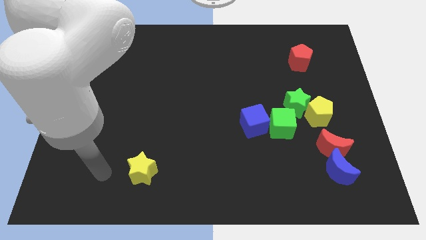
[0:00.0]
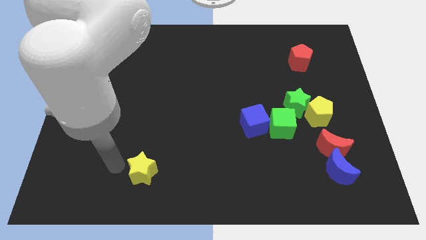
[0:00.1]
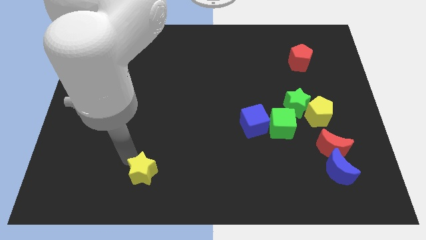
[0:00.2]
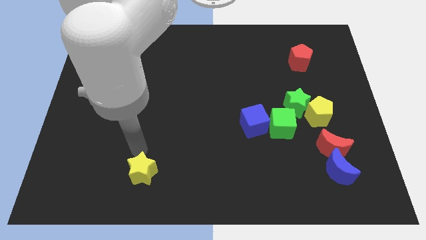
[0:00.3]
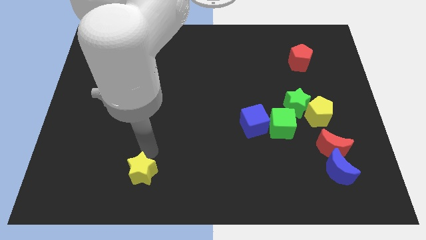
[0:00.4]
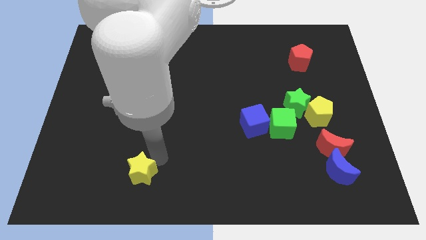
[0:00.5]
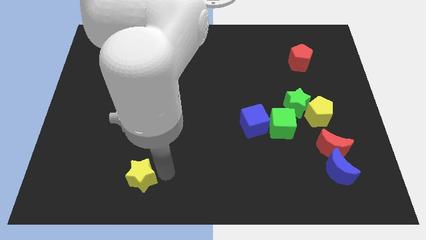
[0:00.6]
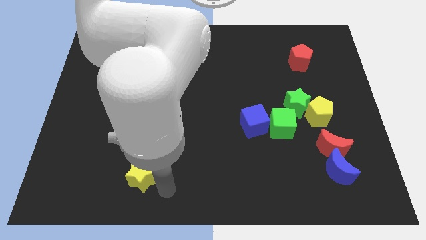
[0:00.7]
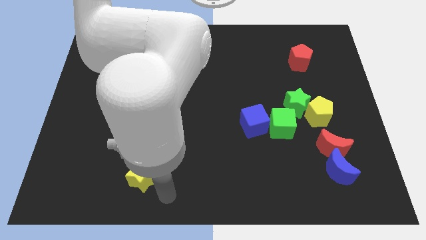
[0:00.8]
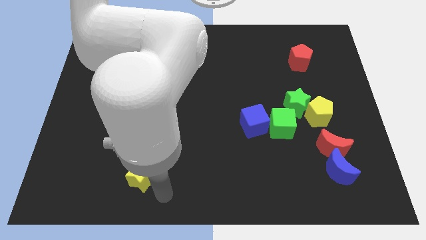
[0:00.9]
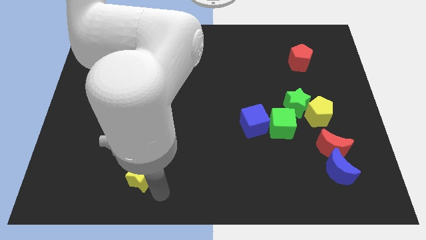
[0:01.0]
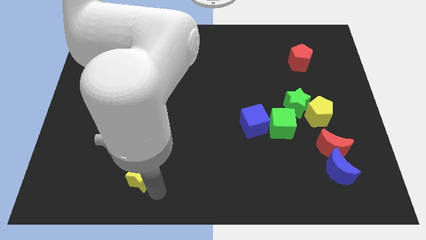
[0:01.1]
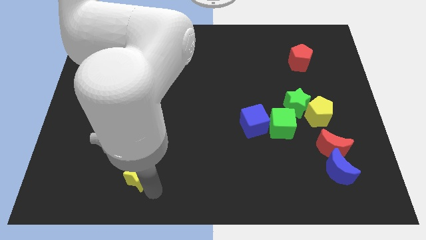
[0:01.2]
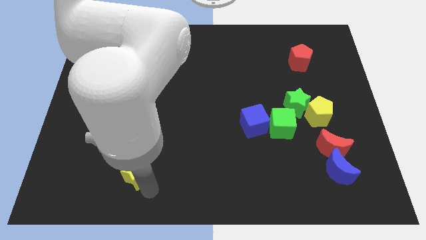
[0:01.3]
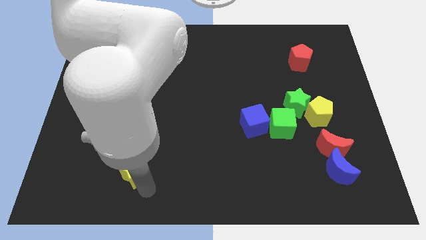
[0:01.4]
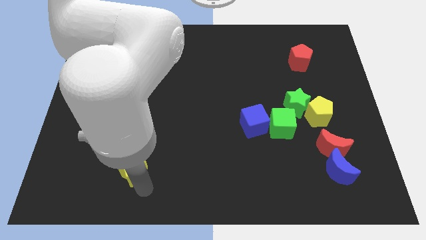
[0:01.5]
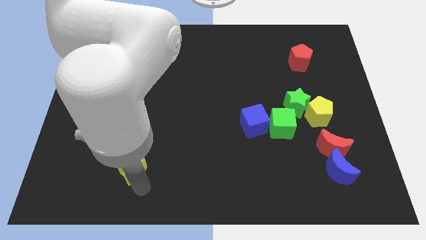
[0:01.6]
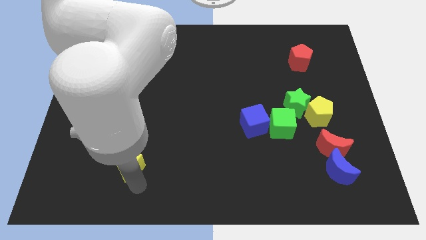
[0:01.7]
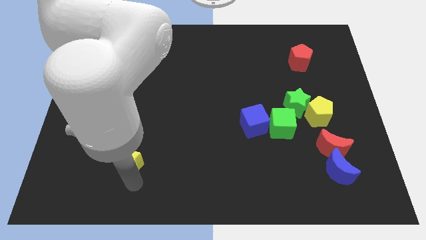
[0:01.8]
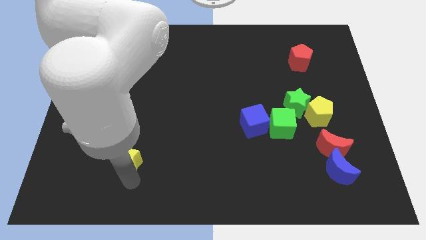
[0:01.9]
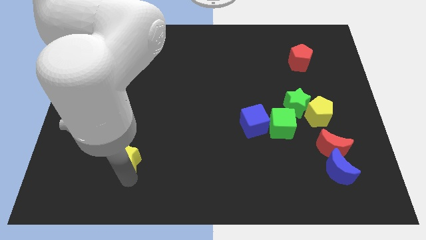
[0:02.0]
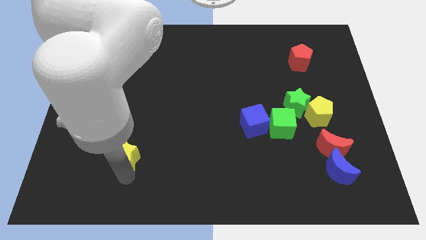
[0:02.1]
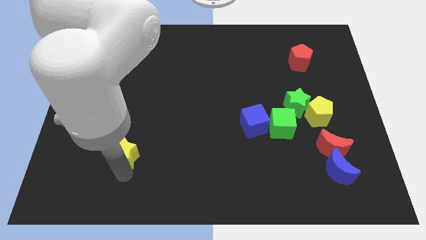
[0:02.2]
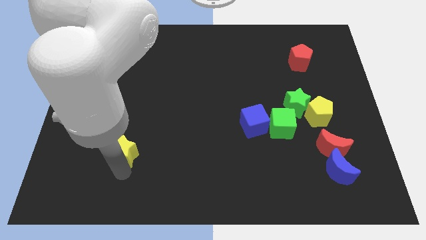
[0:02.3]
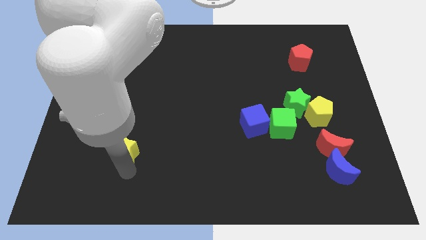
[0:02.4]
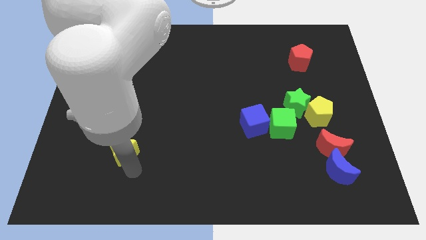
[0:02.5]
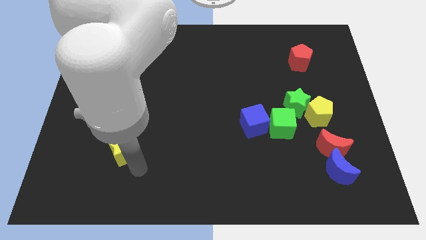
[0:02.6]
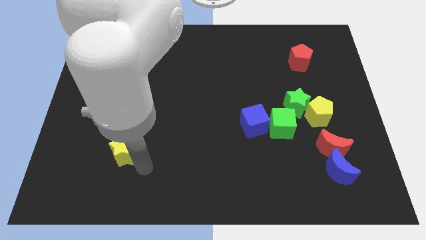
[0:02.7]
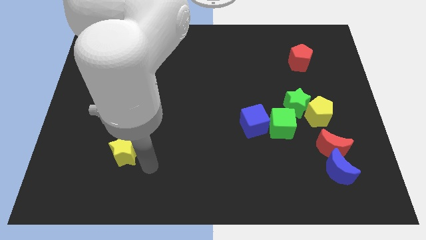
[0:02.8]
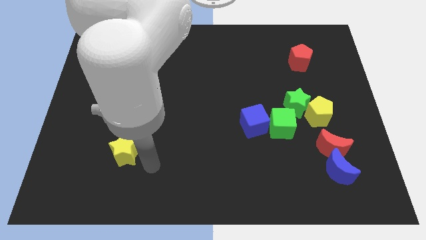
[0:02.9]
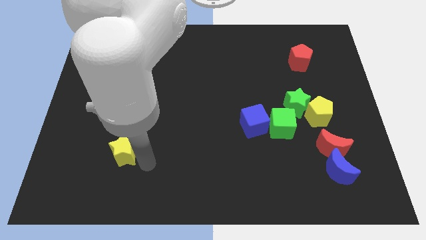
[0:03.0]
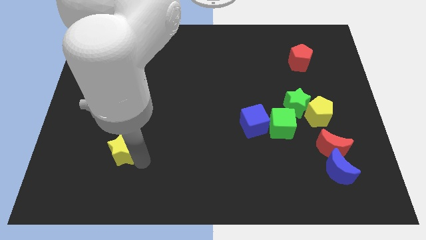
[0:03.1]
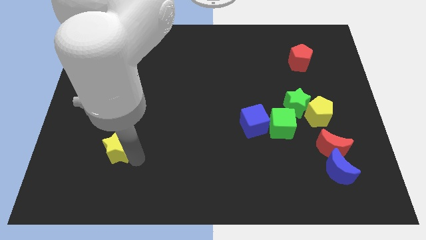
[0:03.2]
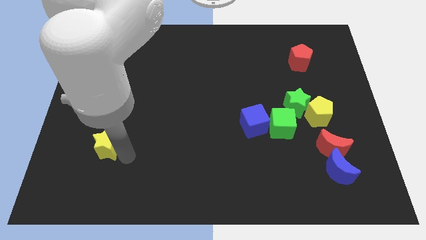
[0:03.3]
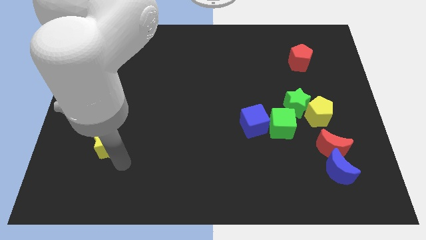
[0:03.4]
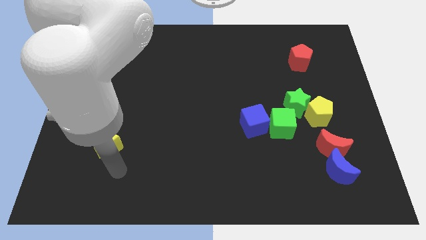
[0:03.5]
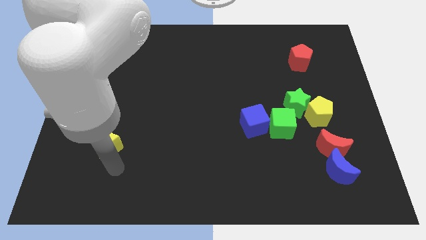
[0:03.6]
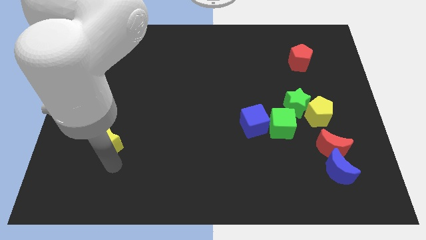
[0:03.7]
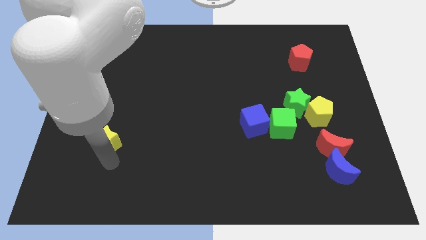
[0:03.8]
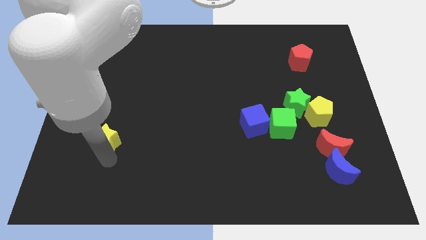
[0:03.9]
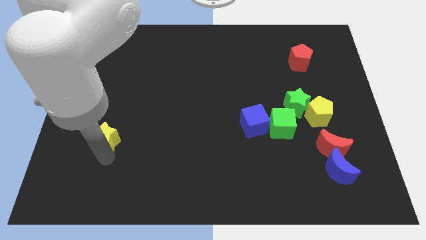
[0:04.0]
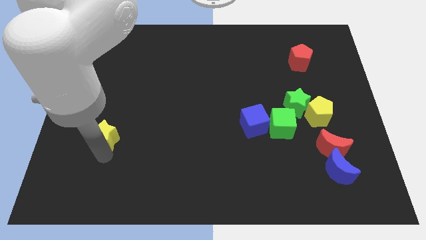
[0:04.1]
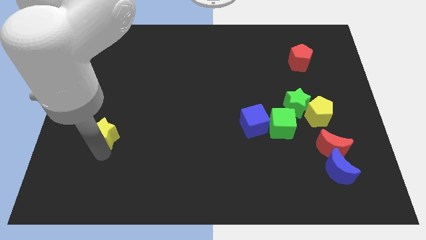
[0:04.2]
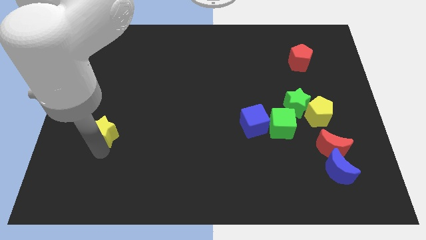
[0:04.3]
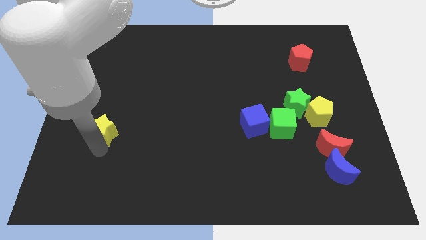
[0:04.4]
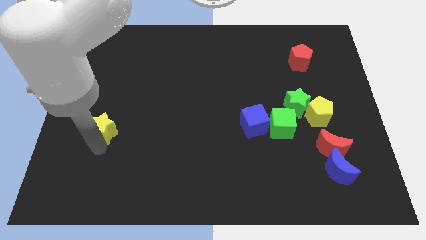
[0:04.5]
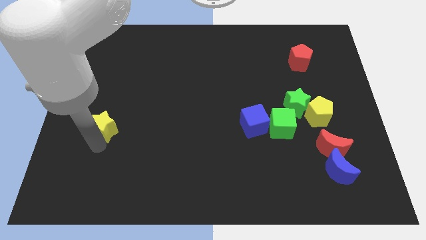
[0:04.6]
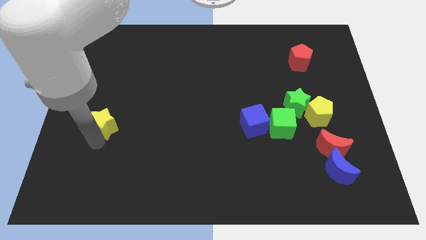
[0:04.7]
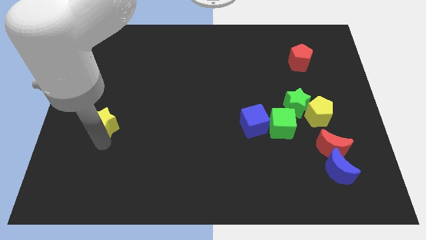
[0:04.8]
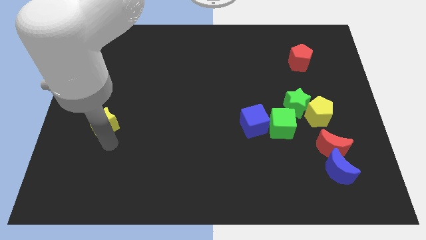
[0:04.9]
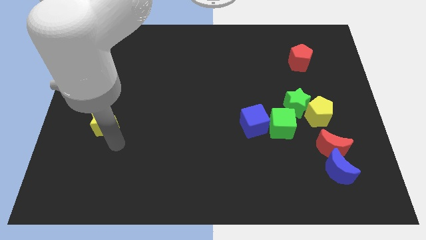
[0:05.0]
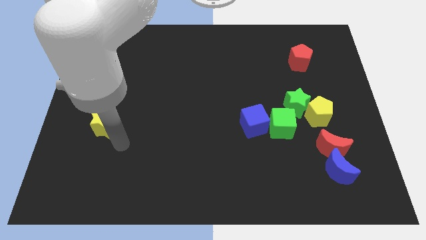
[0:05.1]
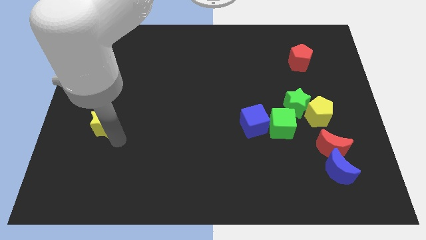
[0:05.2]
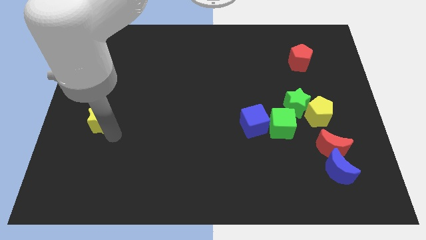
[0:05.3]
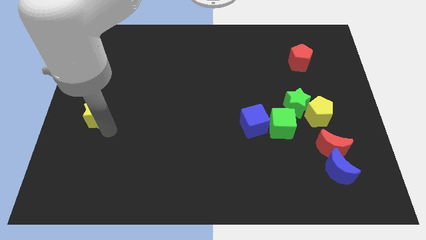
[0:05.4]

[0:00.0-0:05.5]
put the yellow star to the left side of the board

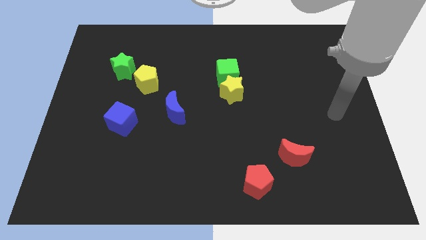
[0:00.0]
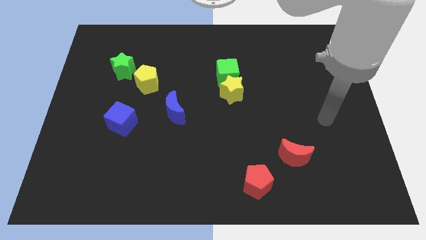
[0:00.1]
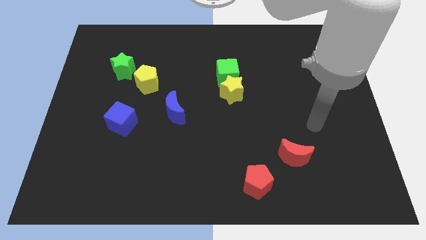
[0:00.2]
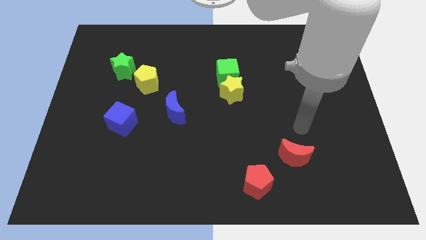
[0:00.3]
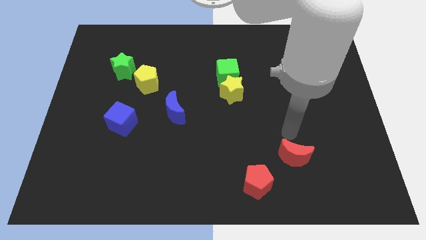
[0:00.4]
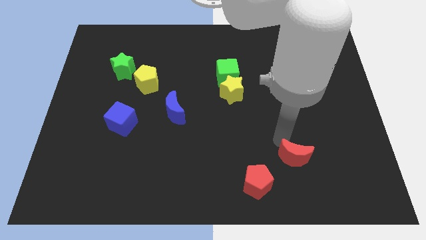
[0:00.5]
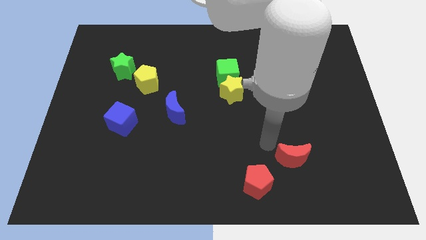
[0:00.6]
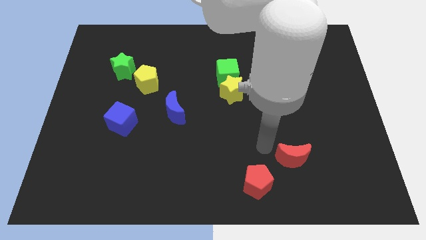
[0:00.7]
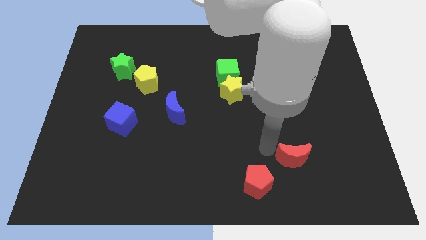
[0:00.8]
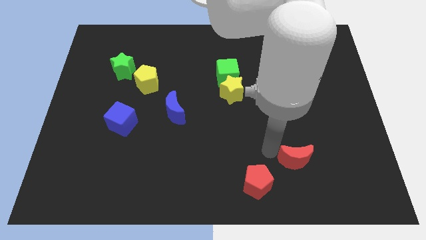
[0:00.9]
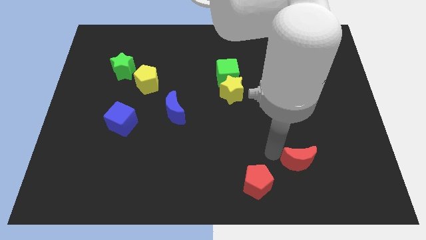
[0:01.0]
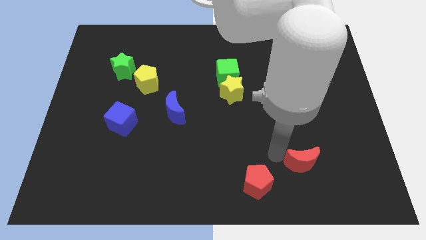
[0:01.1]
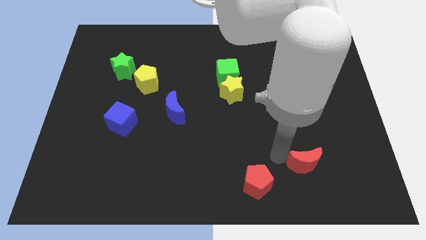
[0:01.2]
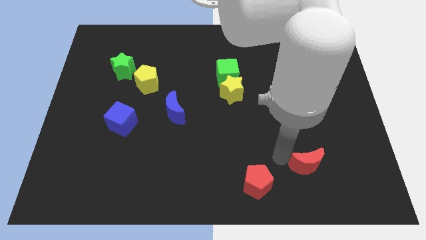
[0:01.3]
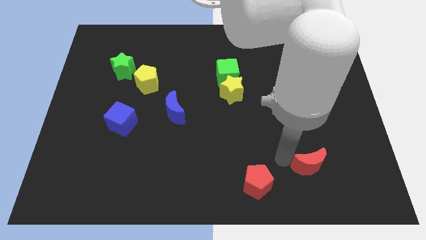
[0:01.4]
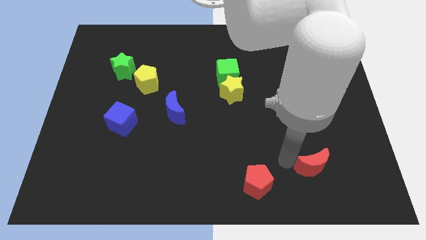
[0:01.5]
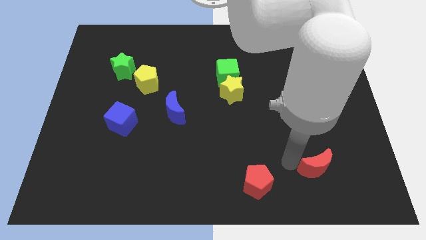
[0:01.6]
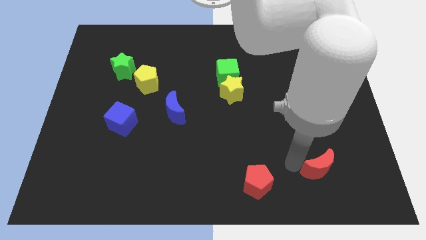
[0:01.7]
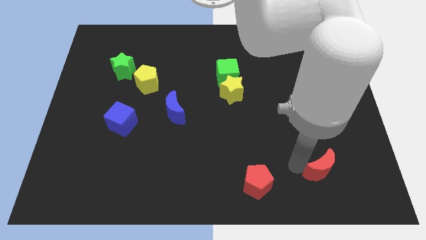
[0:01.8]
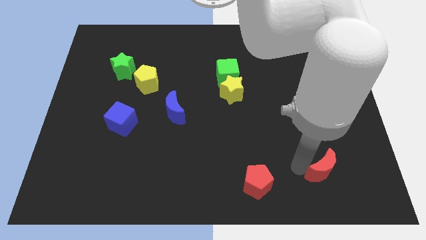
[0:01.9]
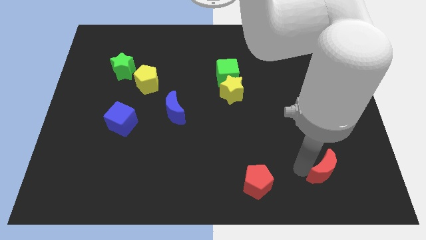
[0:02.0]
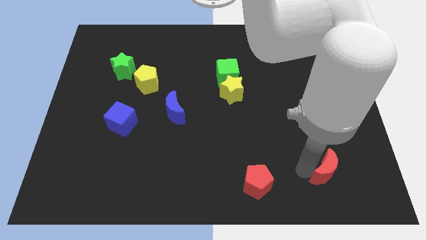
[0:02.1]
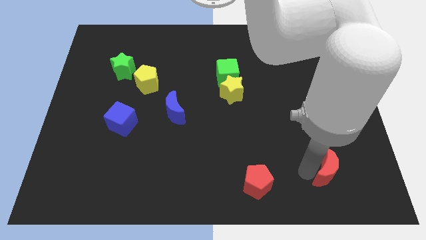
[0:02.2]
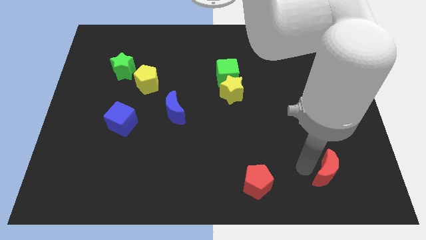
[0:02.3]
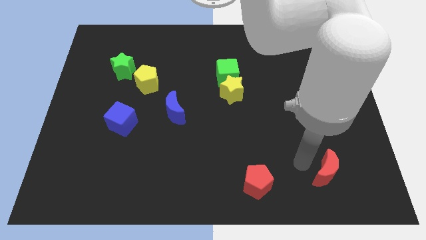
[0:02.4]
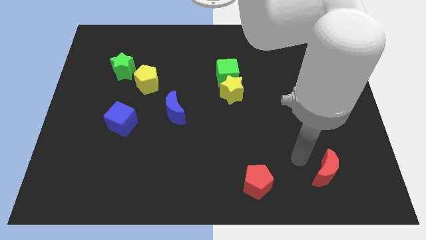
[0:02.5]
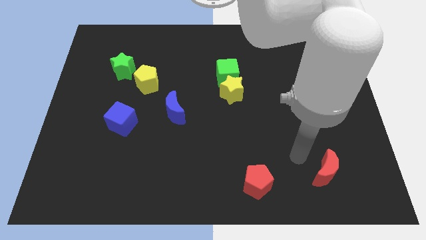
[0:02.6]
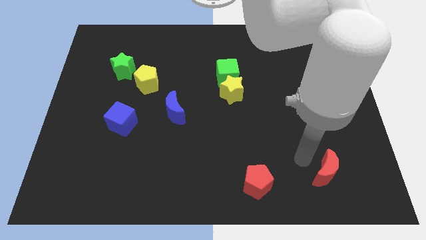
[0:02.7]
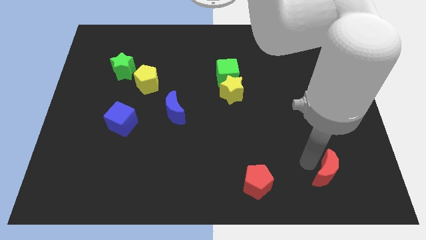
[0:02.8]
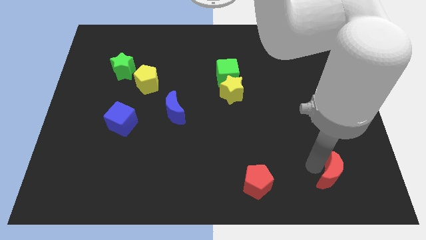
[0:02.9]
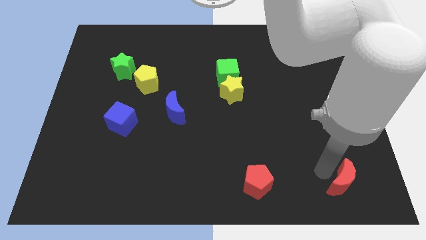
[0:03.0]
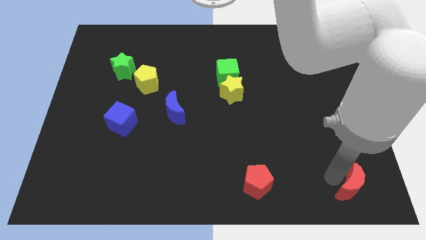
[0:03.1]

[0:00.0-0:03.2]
push the red moon to the lower right corner
